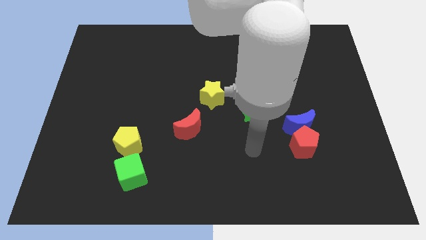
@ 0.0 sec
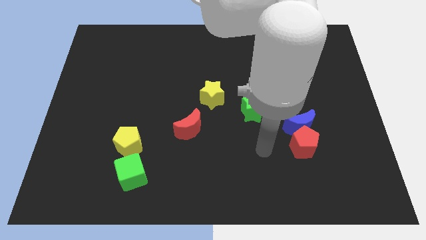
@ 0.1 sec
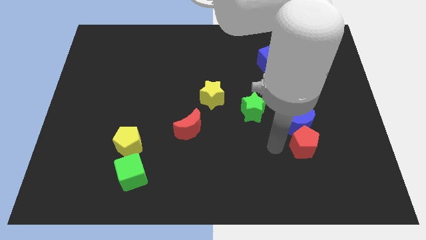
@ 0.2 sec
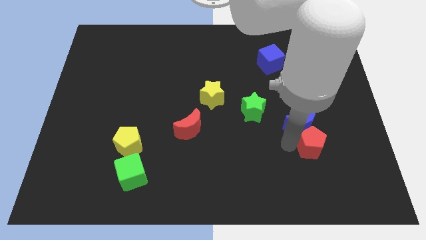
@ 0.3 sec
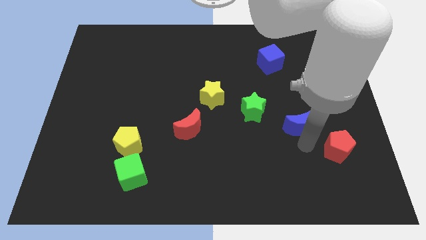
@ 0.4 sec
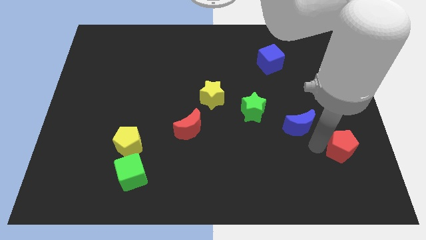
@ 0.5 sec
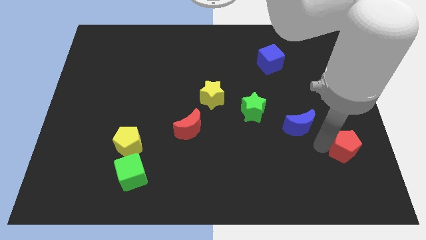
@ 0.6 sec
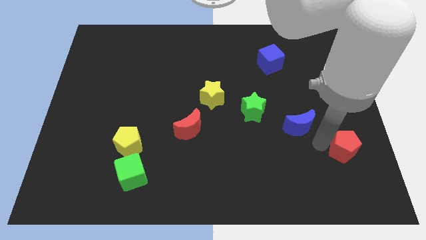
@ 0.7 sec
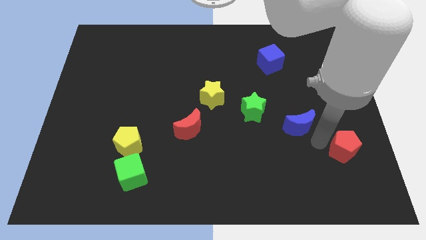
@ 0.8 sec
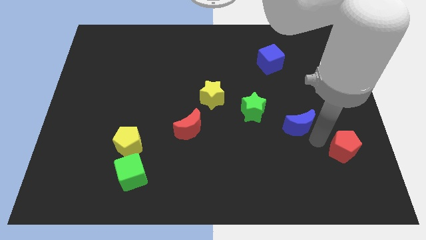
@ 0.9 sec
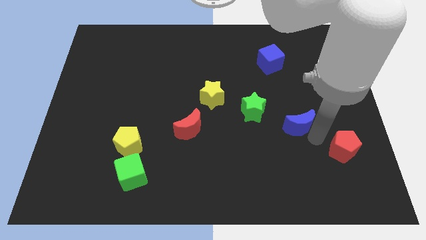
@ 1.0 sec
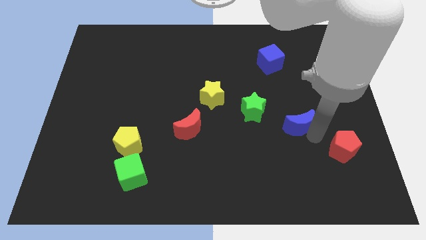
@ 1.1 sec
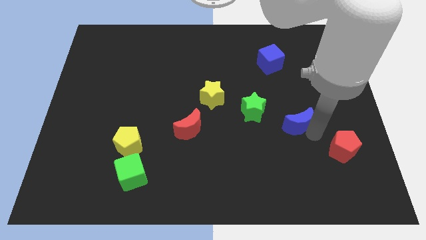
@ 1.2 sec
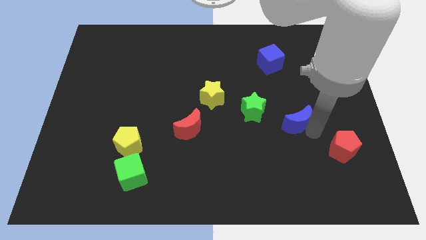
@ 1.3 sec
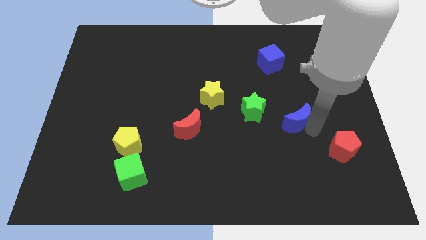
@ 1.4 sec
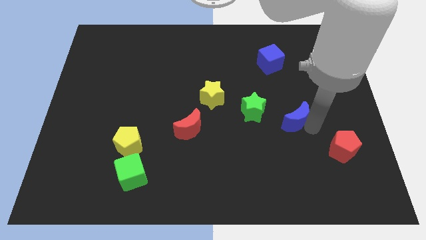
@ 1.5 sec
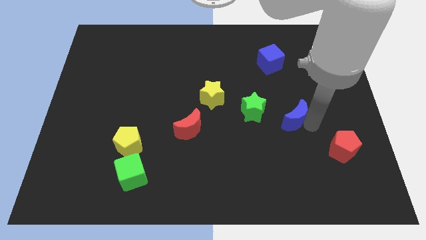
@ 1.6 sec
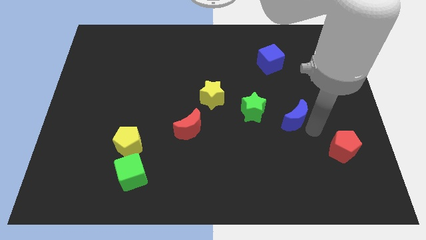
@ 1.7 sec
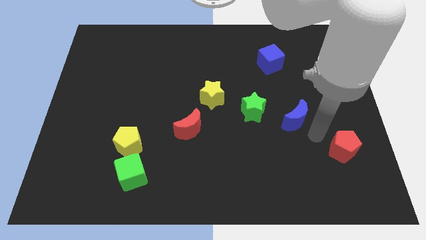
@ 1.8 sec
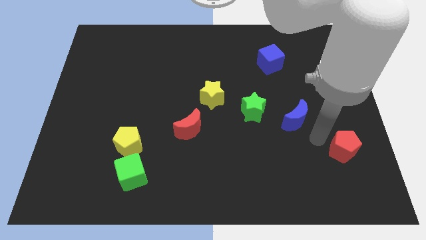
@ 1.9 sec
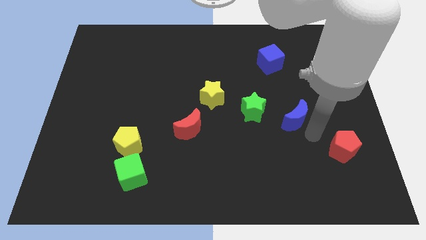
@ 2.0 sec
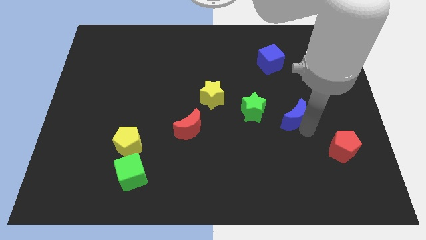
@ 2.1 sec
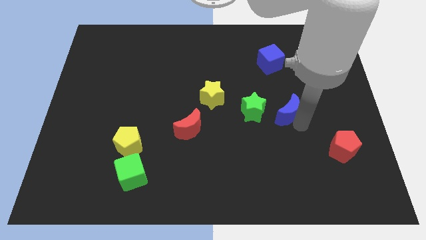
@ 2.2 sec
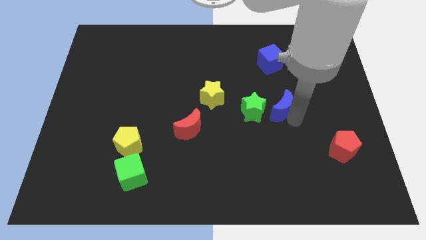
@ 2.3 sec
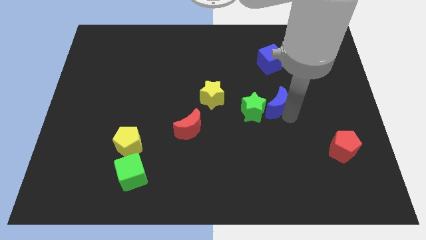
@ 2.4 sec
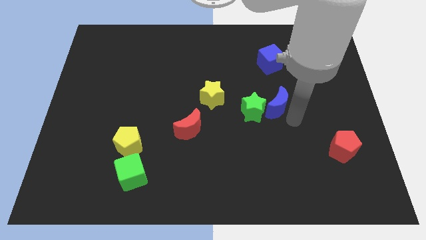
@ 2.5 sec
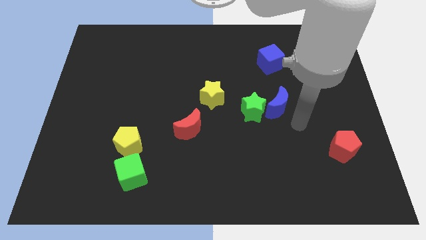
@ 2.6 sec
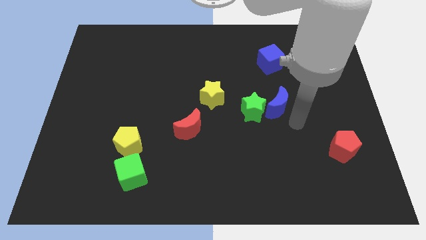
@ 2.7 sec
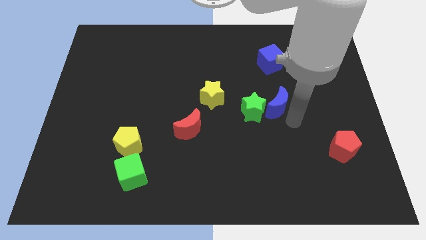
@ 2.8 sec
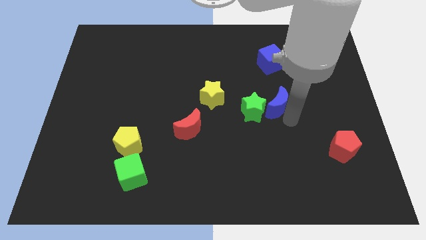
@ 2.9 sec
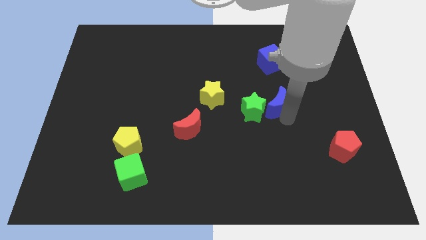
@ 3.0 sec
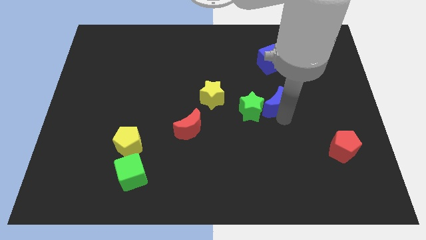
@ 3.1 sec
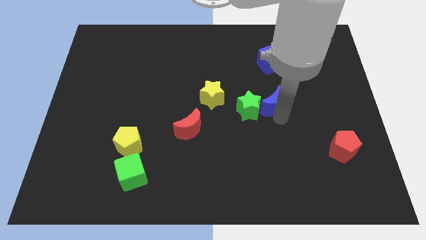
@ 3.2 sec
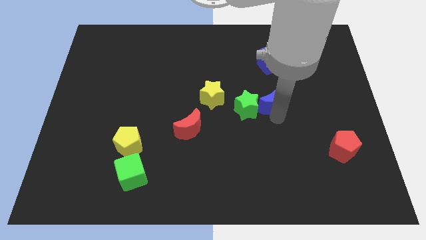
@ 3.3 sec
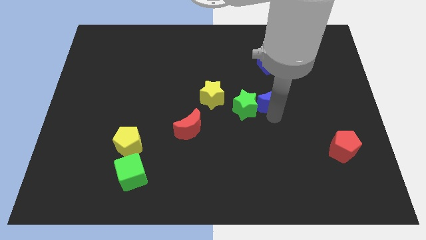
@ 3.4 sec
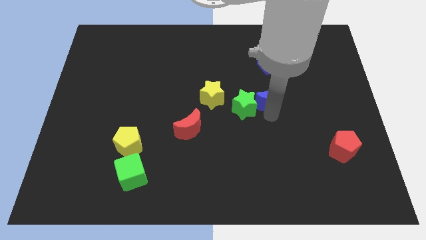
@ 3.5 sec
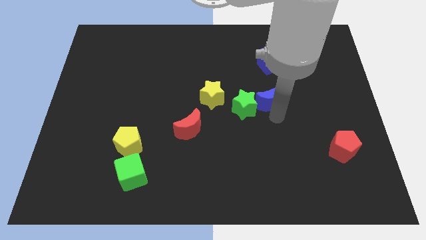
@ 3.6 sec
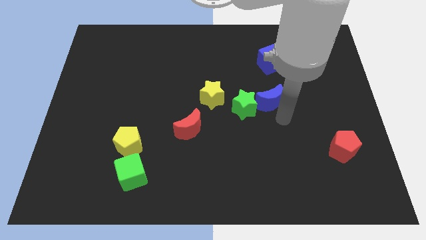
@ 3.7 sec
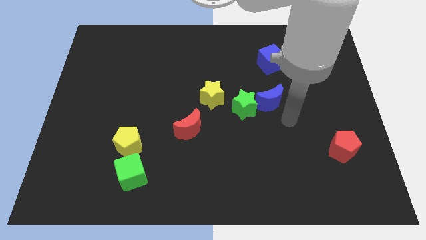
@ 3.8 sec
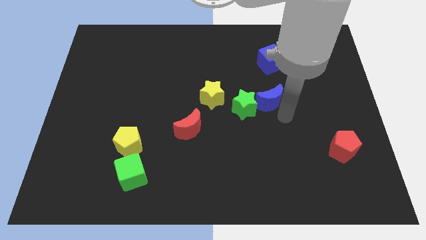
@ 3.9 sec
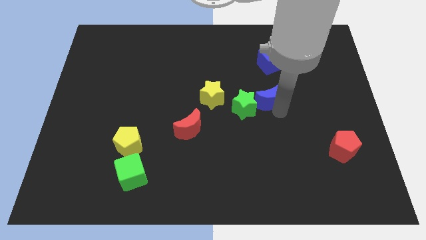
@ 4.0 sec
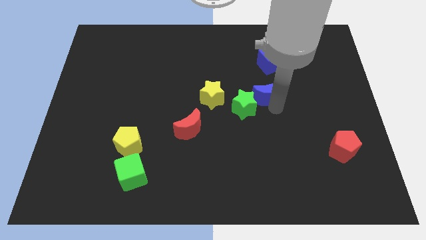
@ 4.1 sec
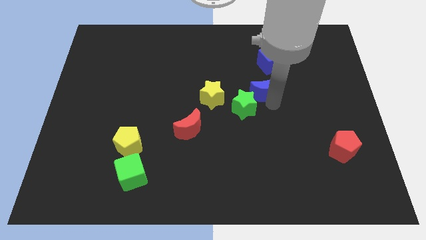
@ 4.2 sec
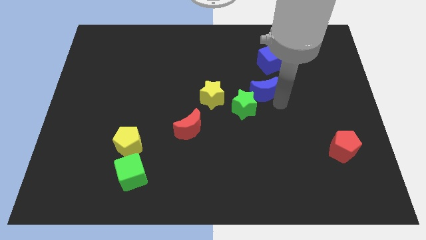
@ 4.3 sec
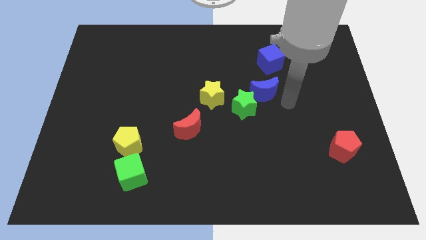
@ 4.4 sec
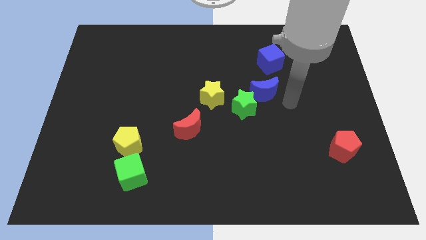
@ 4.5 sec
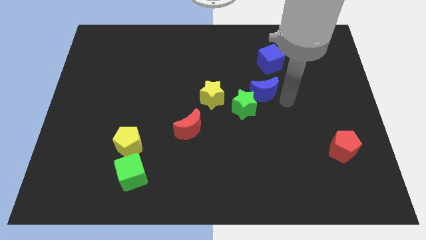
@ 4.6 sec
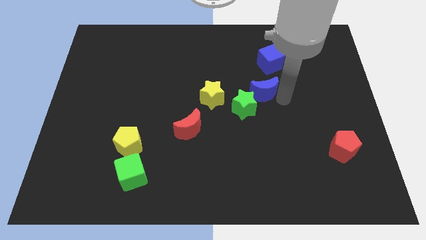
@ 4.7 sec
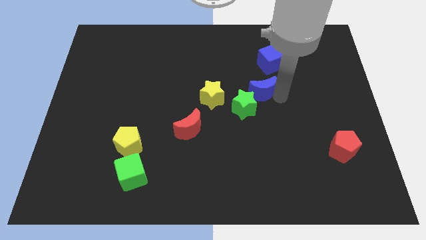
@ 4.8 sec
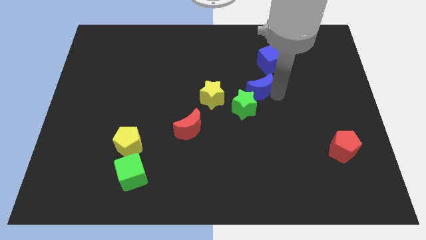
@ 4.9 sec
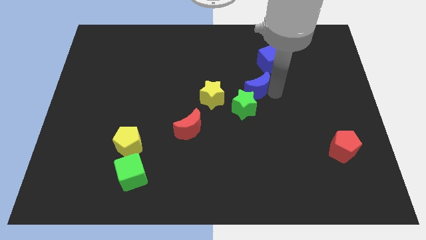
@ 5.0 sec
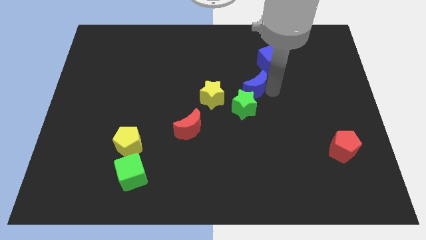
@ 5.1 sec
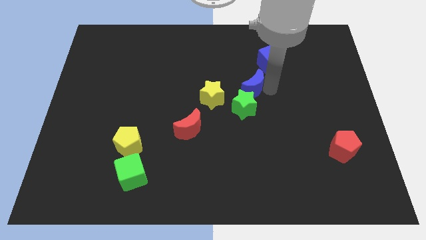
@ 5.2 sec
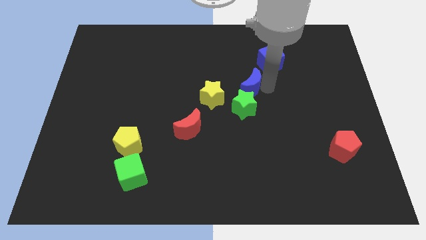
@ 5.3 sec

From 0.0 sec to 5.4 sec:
push the blue moon diagonally up and to the right of the yellow star

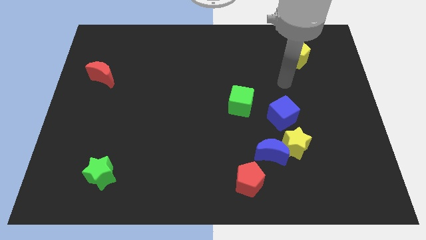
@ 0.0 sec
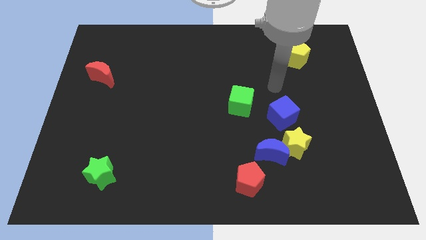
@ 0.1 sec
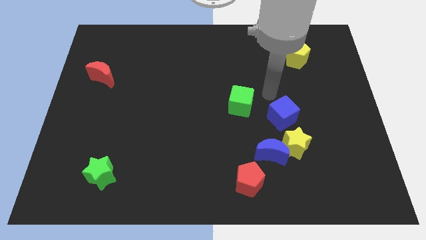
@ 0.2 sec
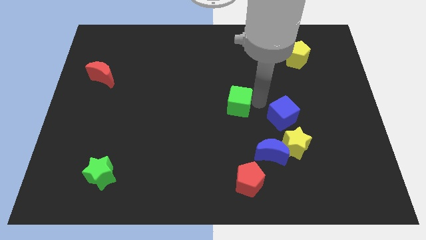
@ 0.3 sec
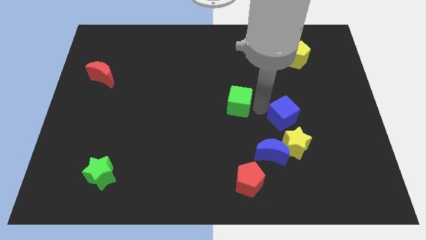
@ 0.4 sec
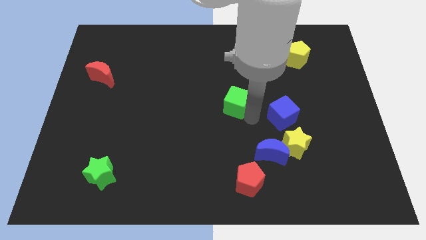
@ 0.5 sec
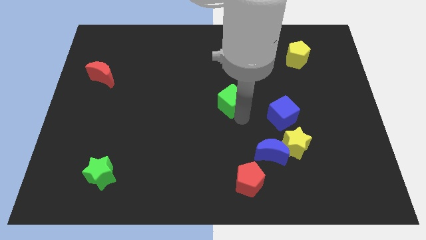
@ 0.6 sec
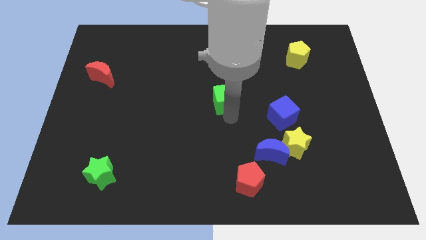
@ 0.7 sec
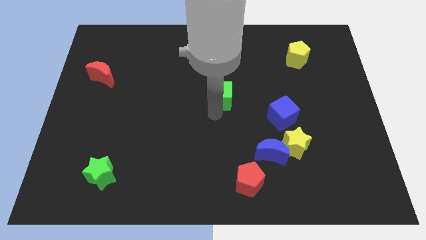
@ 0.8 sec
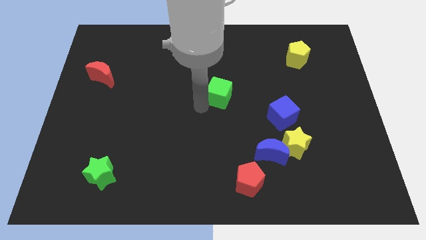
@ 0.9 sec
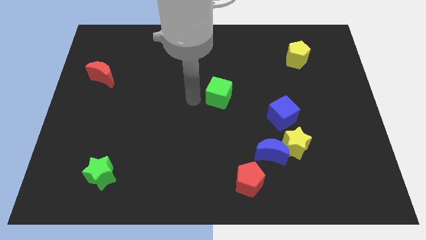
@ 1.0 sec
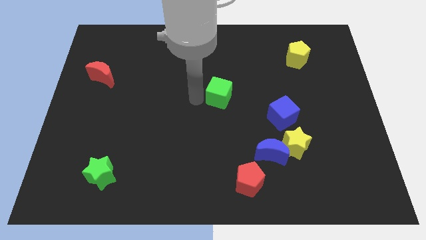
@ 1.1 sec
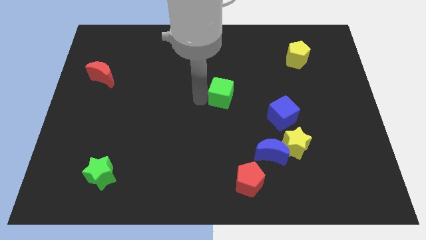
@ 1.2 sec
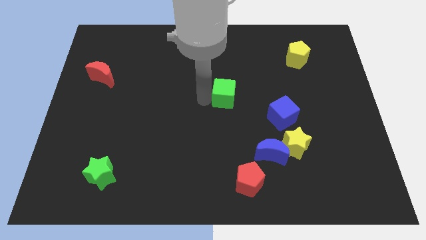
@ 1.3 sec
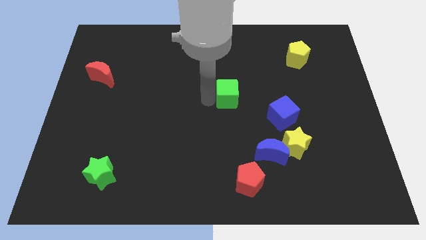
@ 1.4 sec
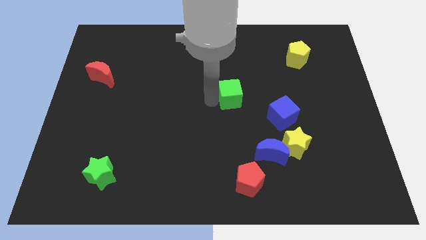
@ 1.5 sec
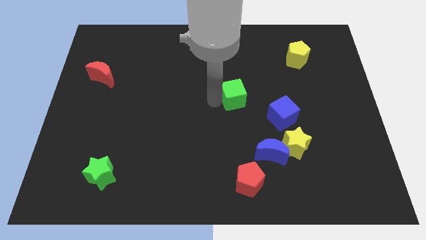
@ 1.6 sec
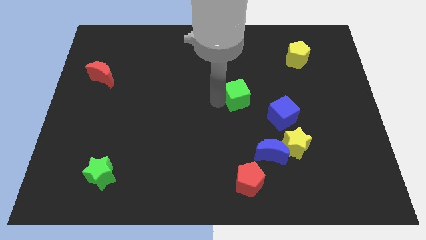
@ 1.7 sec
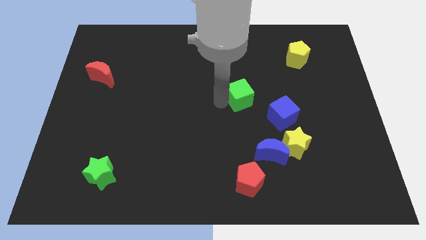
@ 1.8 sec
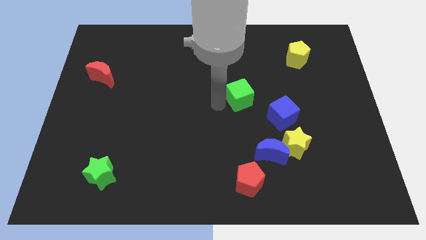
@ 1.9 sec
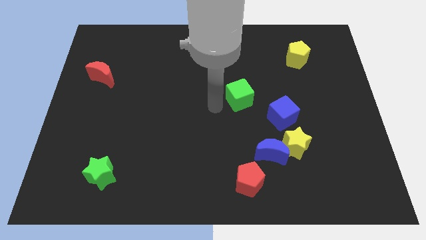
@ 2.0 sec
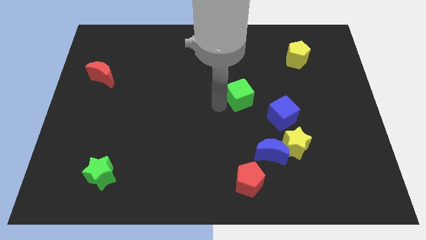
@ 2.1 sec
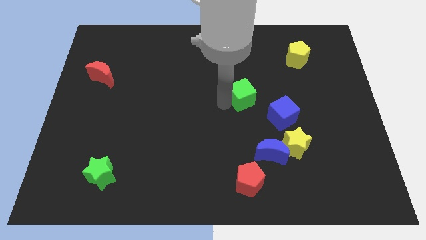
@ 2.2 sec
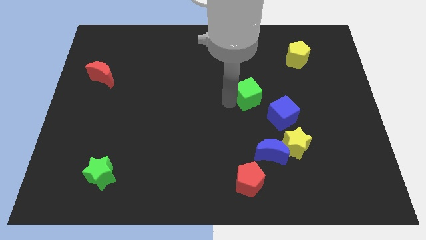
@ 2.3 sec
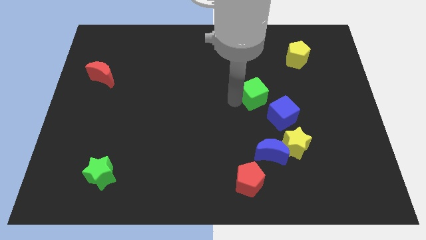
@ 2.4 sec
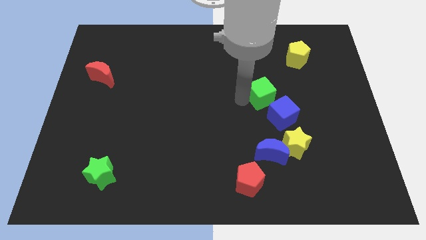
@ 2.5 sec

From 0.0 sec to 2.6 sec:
slide the green cube to the top of the blue cube
